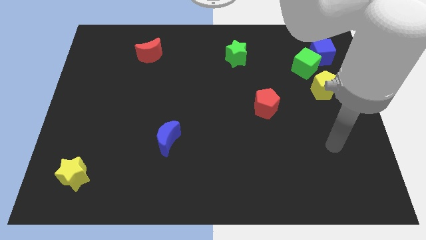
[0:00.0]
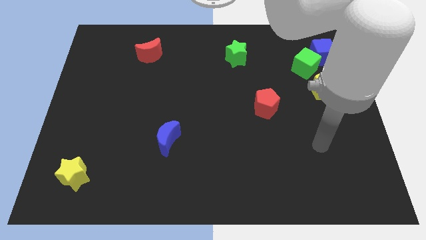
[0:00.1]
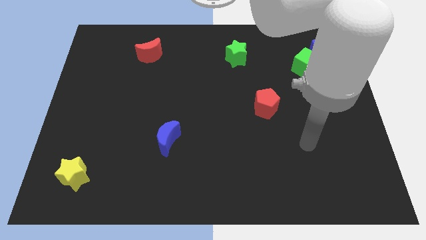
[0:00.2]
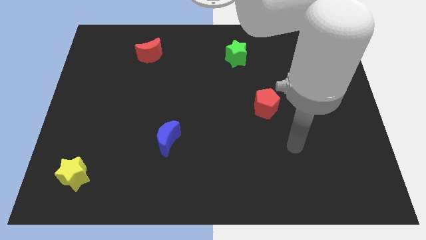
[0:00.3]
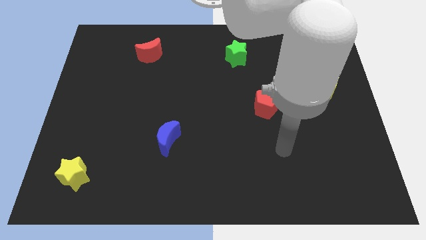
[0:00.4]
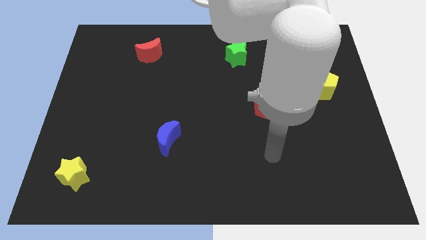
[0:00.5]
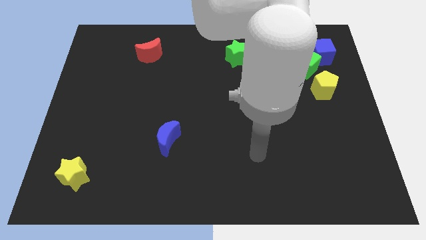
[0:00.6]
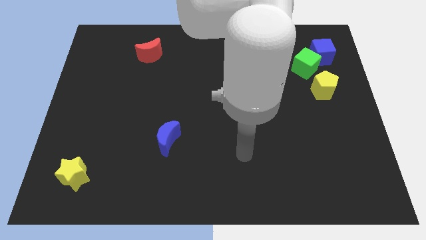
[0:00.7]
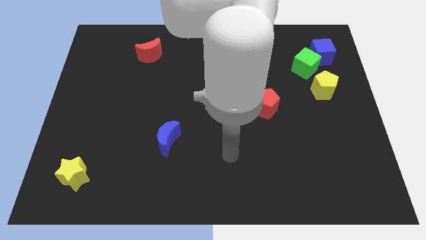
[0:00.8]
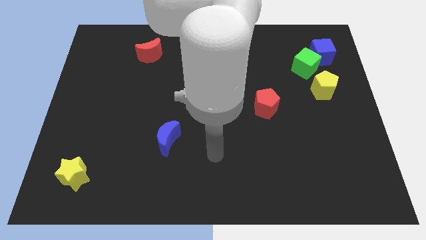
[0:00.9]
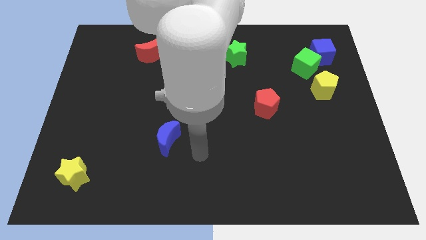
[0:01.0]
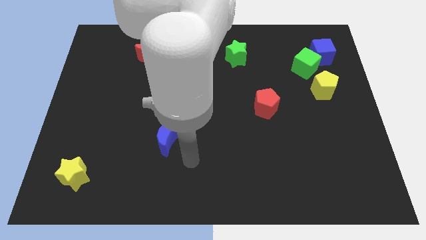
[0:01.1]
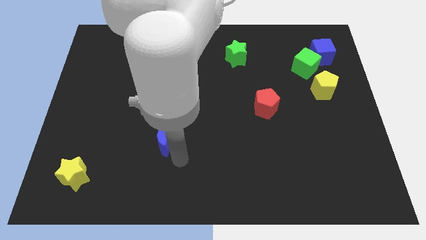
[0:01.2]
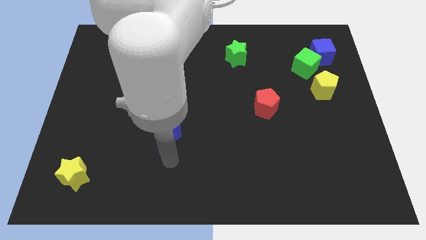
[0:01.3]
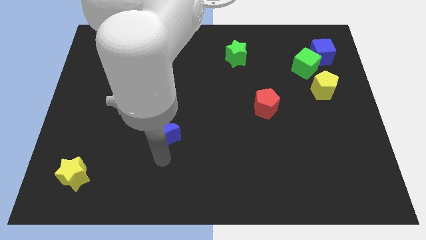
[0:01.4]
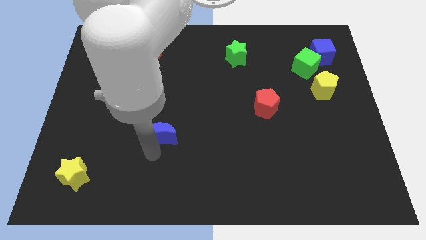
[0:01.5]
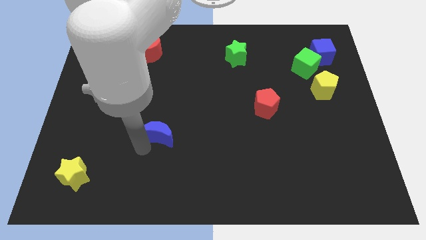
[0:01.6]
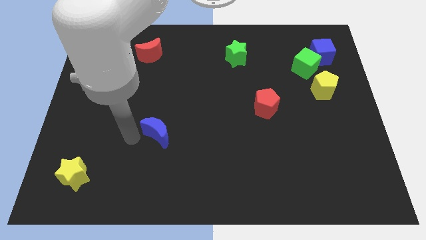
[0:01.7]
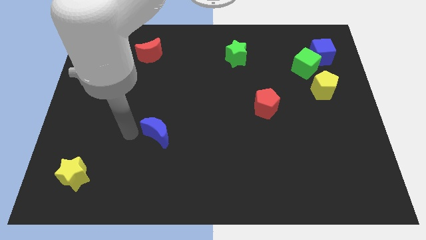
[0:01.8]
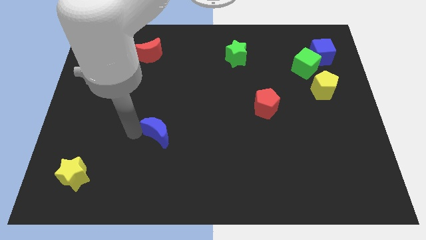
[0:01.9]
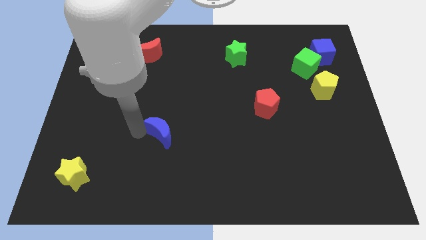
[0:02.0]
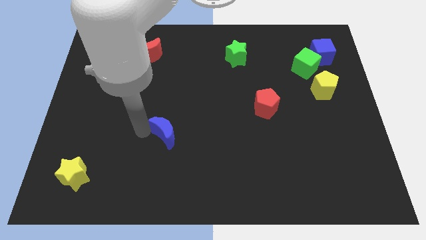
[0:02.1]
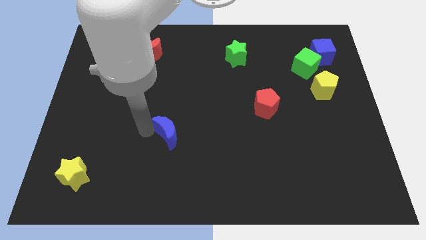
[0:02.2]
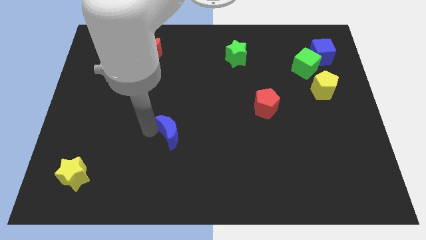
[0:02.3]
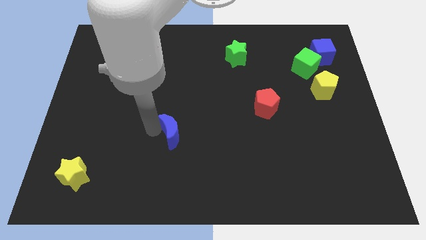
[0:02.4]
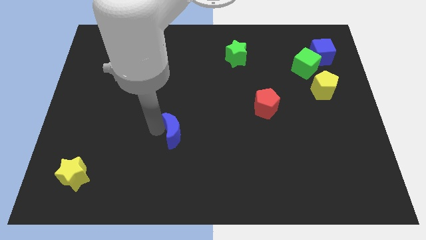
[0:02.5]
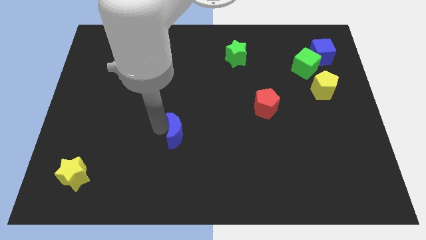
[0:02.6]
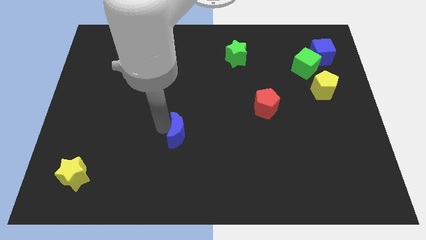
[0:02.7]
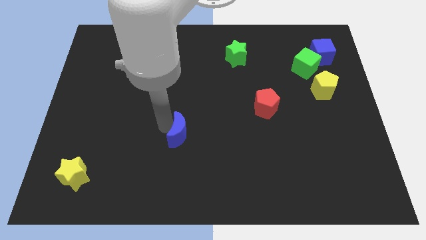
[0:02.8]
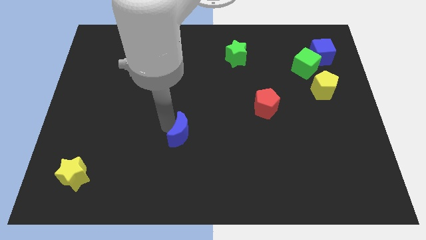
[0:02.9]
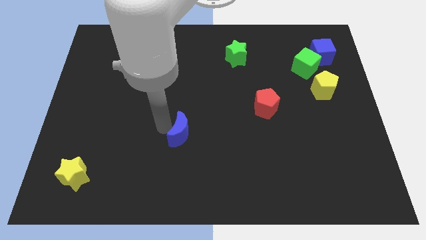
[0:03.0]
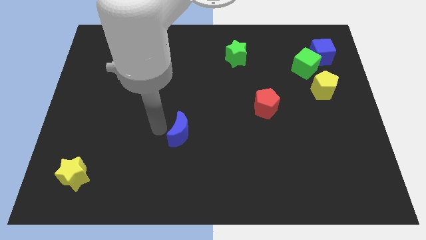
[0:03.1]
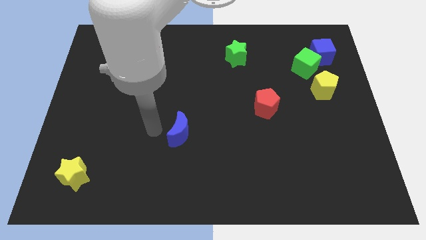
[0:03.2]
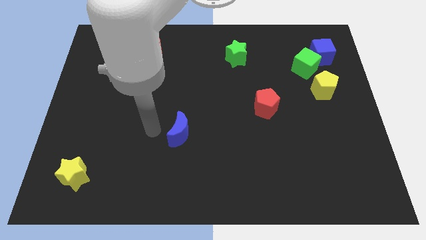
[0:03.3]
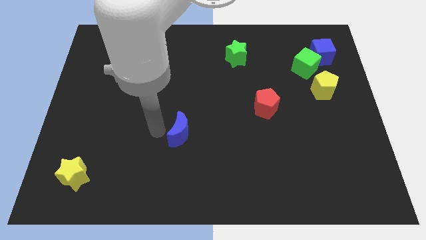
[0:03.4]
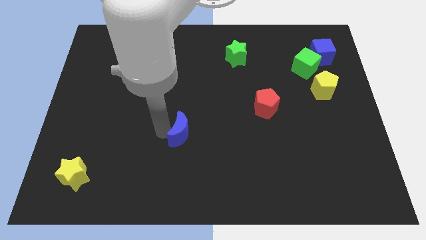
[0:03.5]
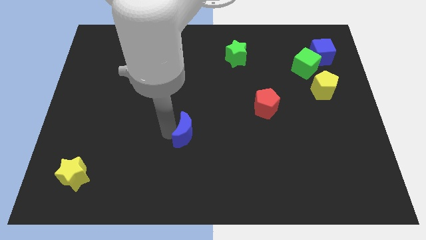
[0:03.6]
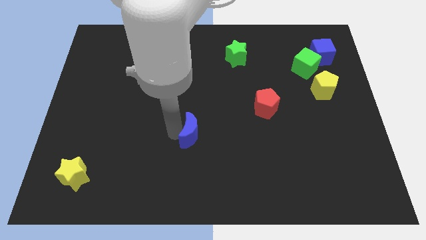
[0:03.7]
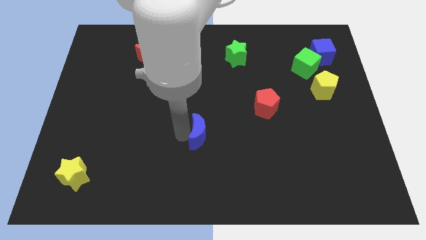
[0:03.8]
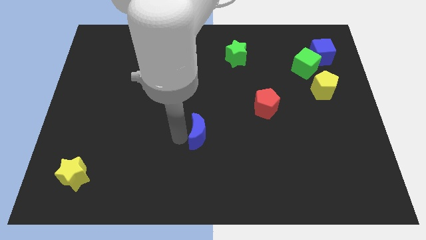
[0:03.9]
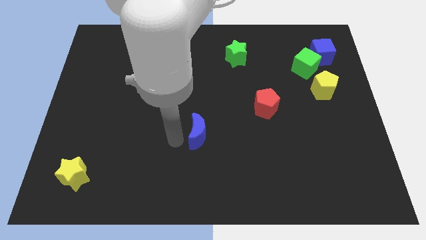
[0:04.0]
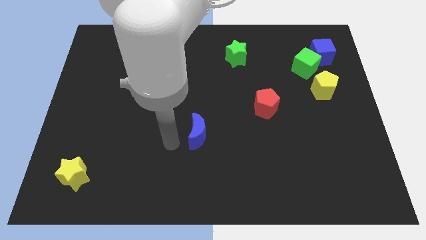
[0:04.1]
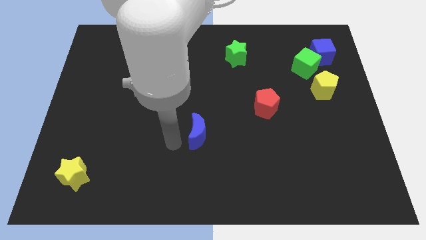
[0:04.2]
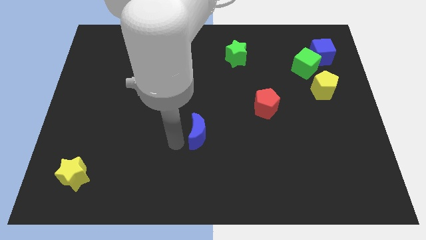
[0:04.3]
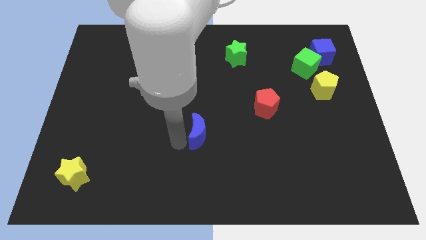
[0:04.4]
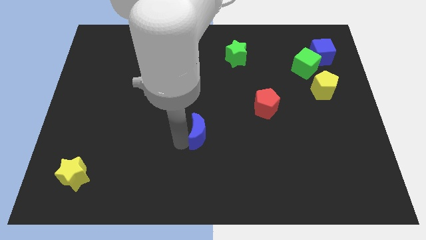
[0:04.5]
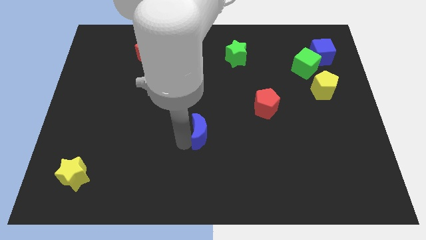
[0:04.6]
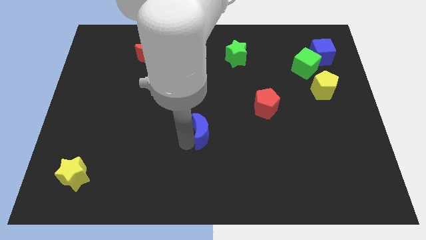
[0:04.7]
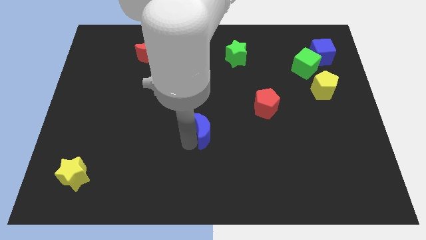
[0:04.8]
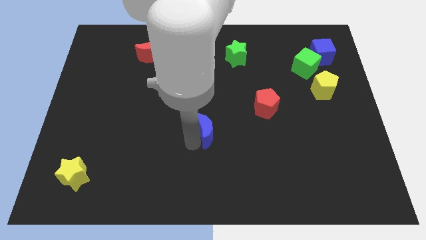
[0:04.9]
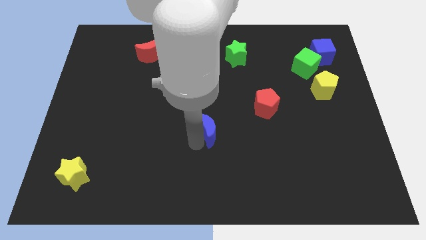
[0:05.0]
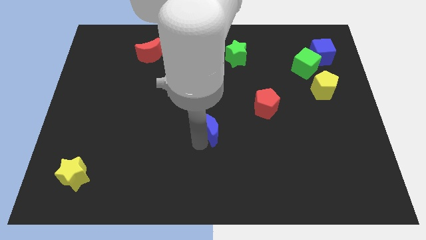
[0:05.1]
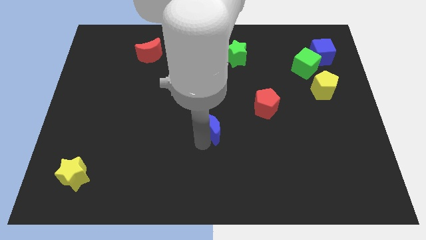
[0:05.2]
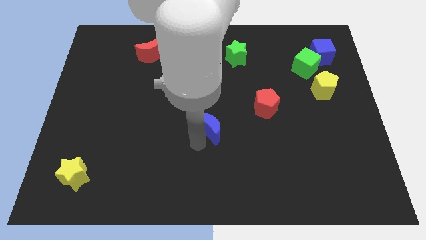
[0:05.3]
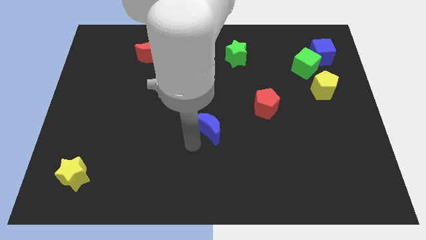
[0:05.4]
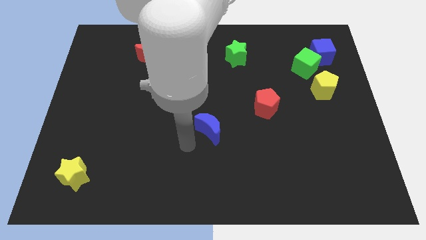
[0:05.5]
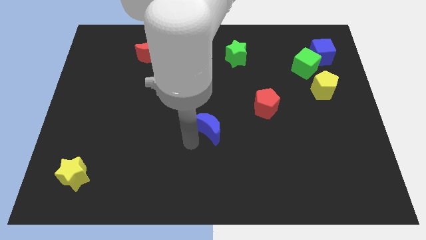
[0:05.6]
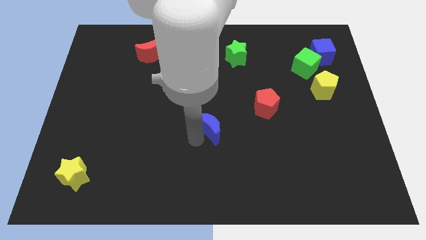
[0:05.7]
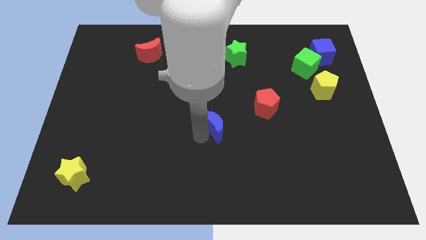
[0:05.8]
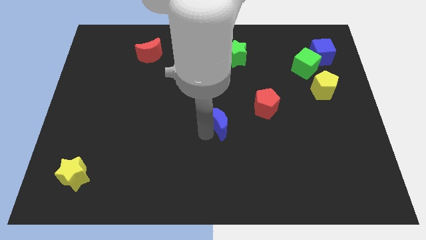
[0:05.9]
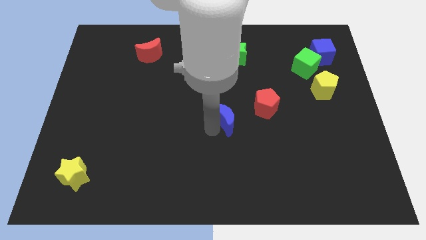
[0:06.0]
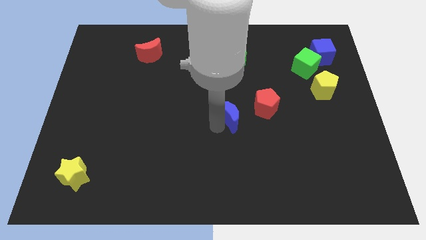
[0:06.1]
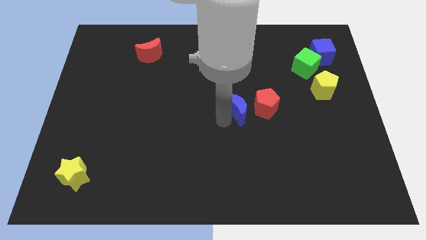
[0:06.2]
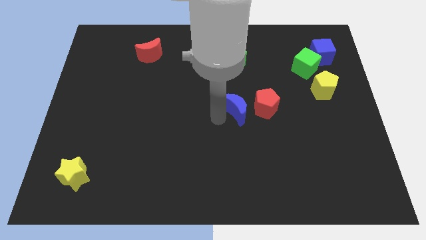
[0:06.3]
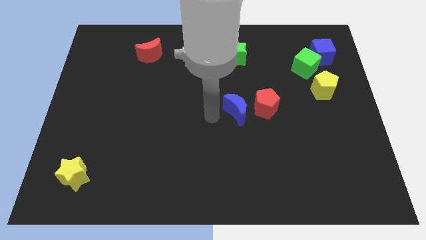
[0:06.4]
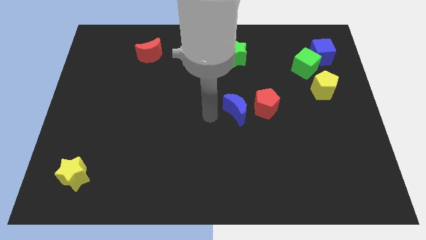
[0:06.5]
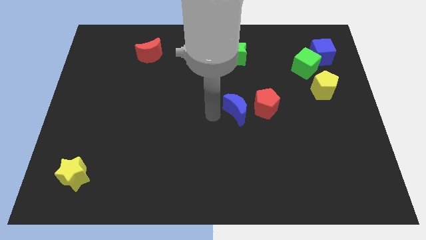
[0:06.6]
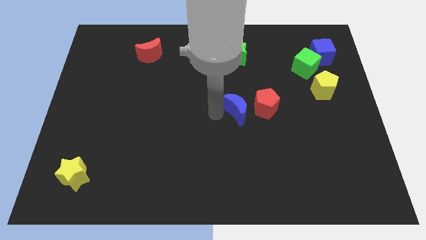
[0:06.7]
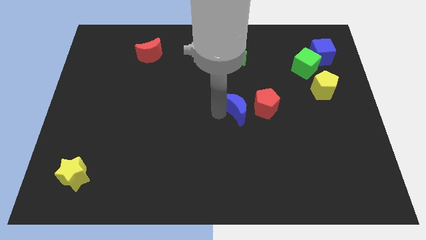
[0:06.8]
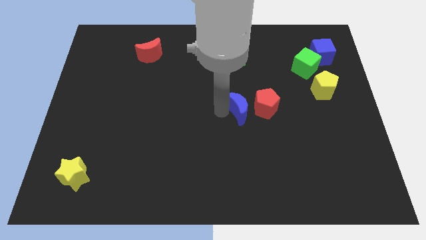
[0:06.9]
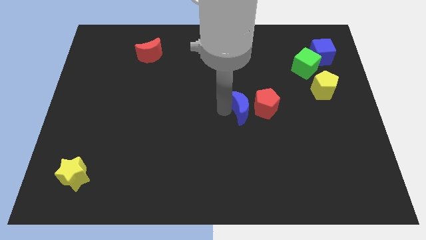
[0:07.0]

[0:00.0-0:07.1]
push the blue moon towards the red pentagon

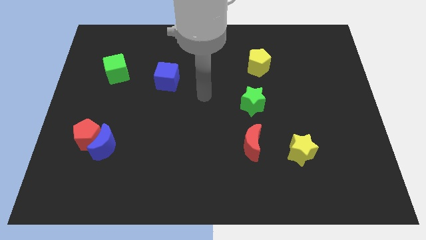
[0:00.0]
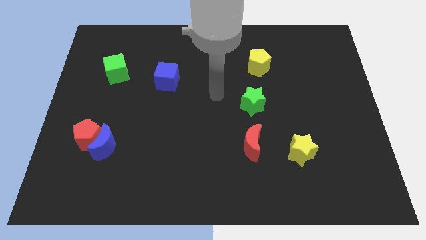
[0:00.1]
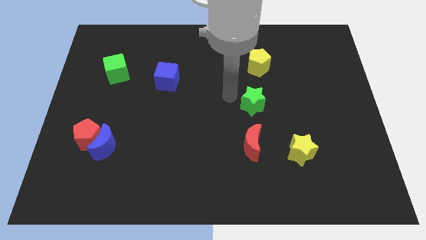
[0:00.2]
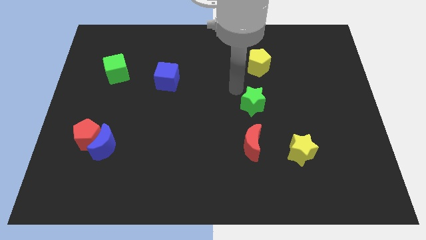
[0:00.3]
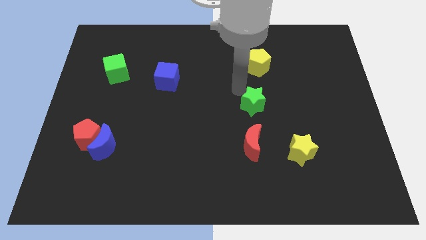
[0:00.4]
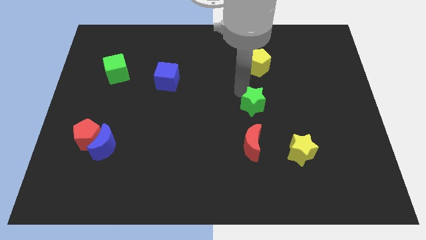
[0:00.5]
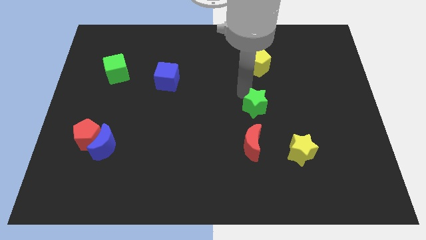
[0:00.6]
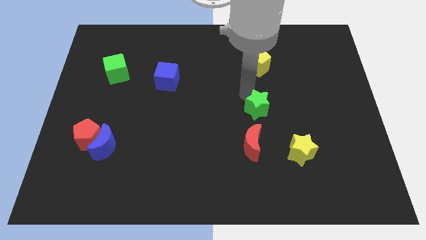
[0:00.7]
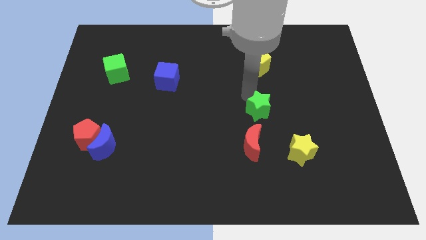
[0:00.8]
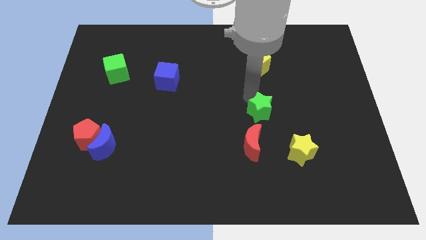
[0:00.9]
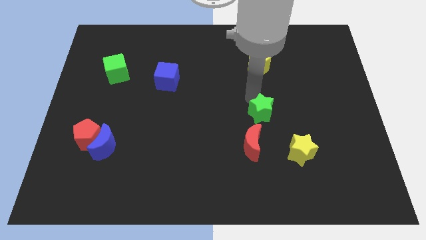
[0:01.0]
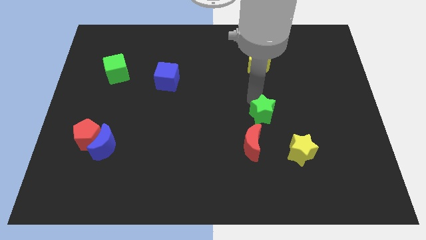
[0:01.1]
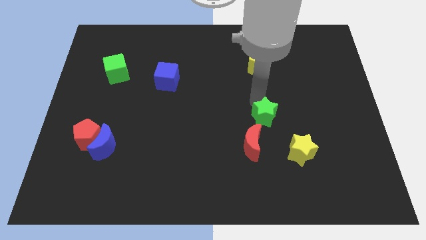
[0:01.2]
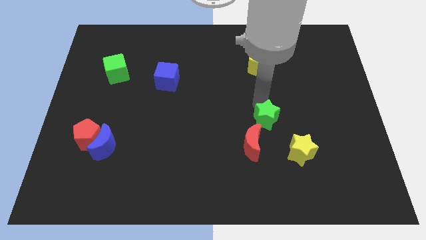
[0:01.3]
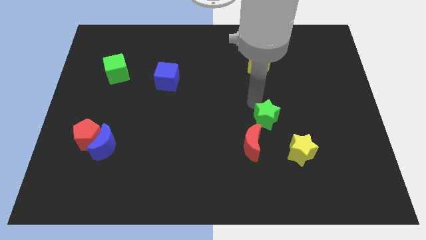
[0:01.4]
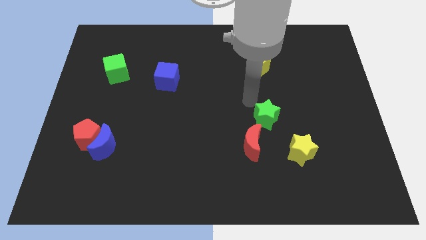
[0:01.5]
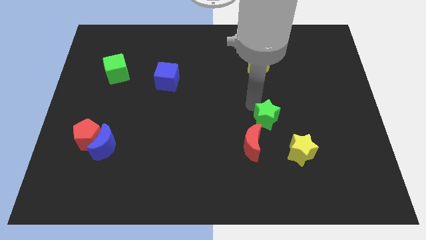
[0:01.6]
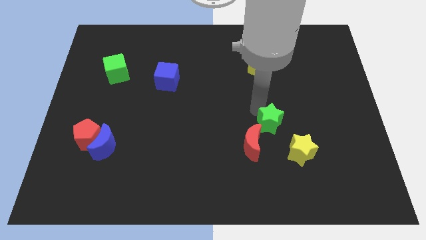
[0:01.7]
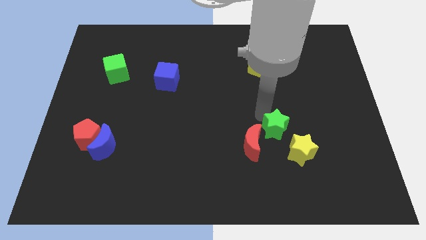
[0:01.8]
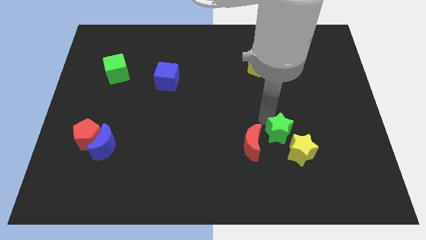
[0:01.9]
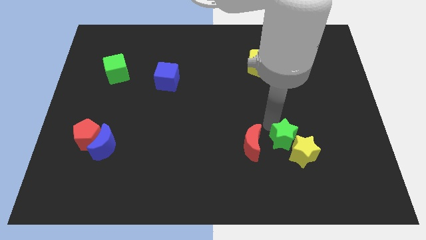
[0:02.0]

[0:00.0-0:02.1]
slide the green star next to the yellow star
